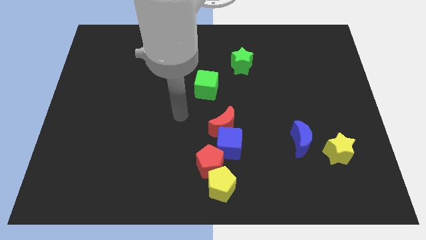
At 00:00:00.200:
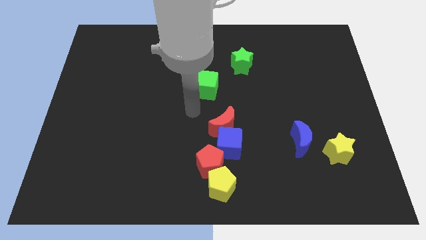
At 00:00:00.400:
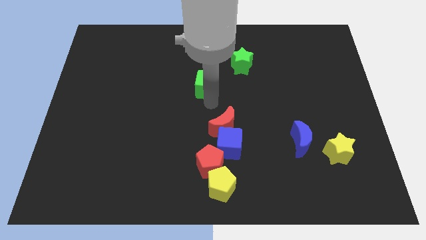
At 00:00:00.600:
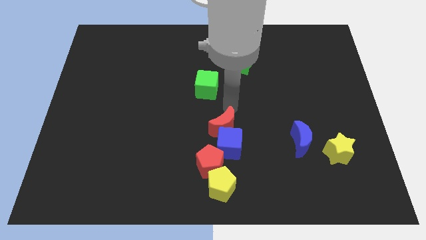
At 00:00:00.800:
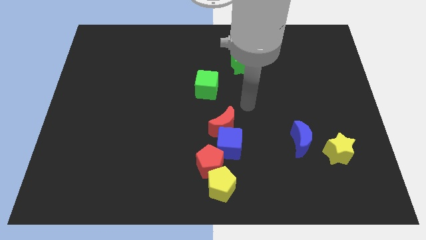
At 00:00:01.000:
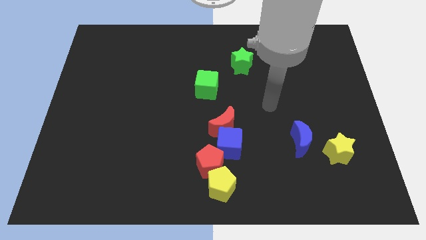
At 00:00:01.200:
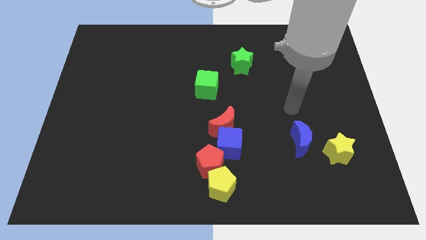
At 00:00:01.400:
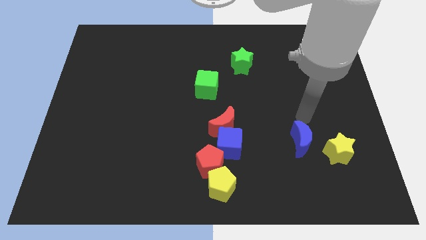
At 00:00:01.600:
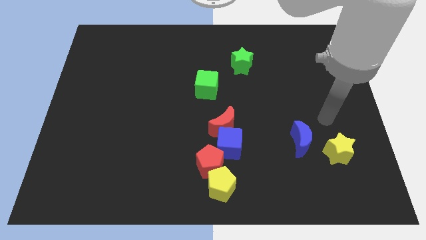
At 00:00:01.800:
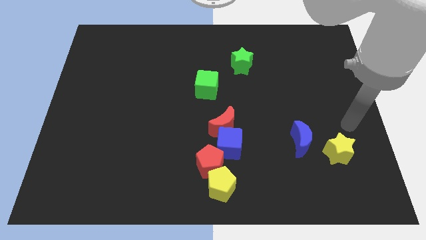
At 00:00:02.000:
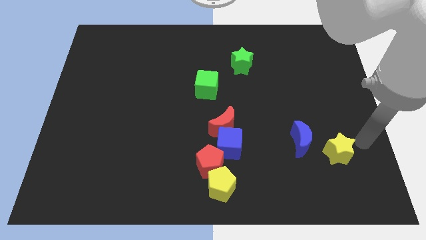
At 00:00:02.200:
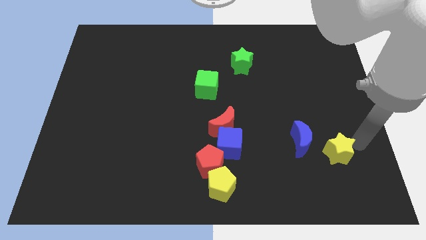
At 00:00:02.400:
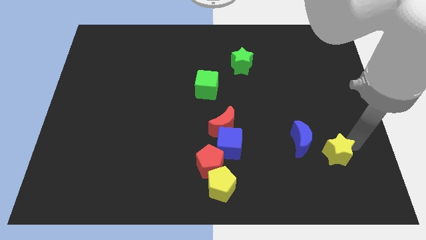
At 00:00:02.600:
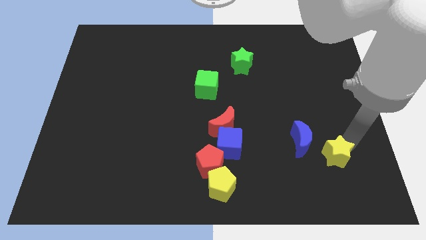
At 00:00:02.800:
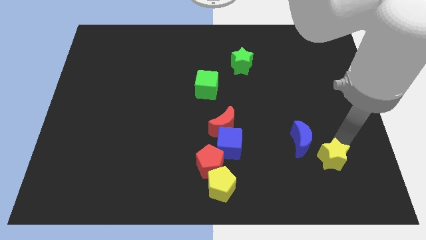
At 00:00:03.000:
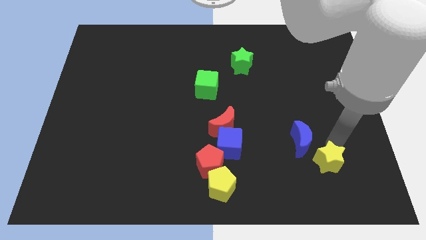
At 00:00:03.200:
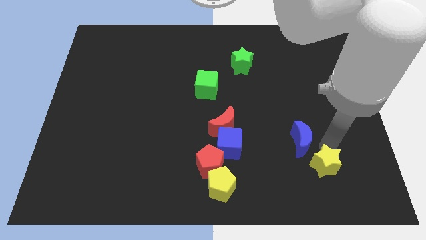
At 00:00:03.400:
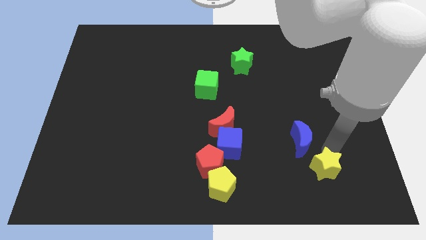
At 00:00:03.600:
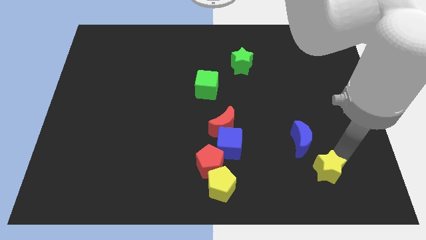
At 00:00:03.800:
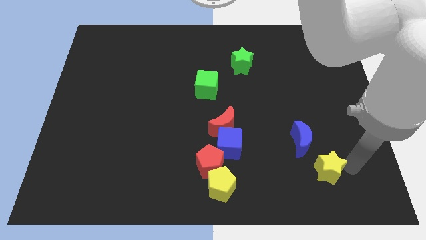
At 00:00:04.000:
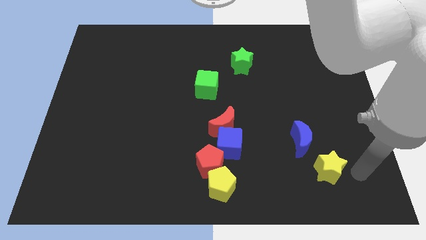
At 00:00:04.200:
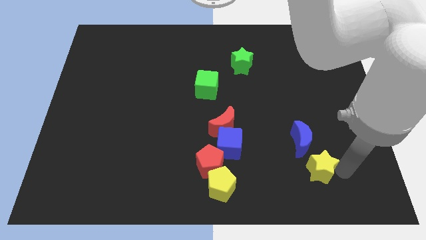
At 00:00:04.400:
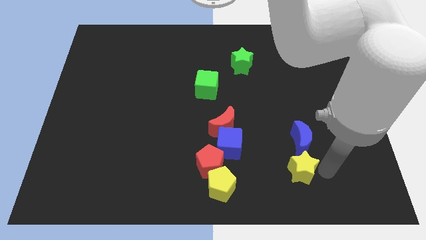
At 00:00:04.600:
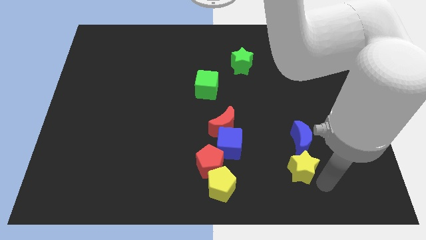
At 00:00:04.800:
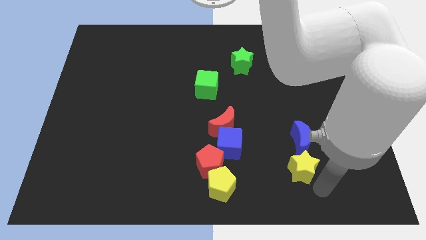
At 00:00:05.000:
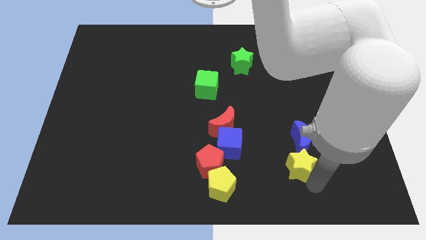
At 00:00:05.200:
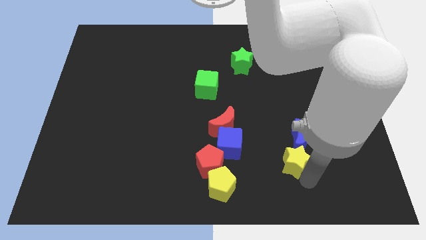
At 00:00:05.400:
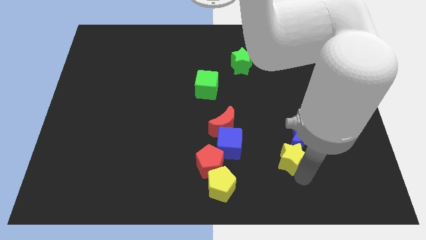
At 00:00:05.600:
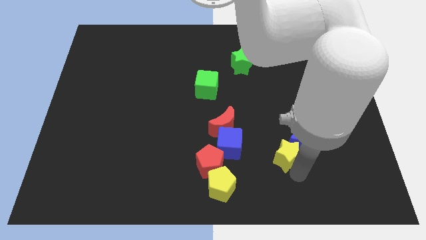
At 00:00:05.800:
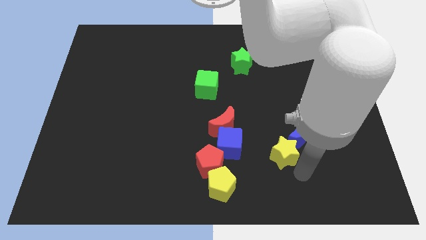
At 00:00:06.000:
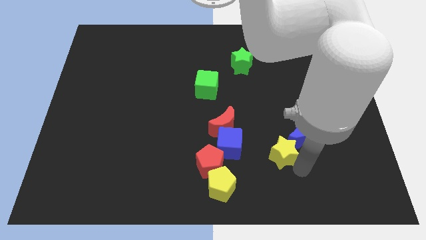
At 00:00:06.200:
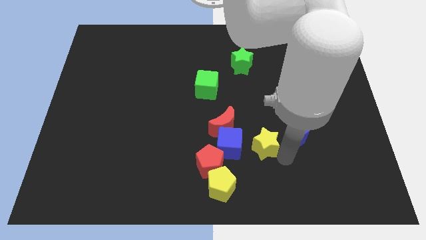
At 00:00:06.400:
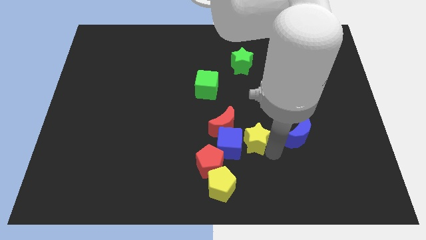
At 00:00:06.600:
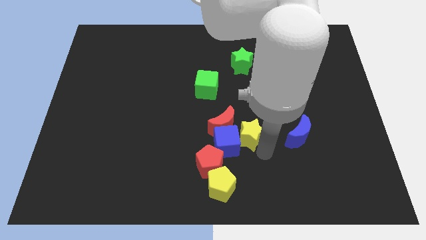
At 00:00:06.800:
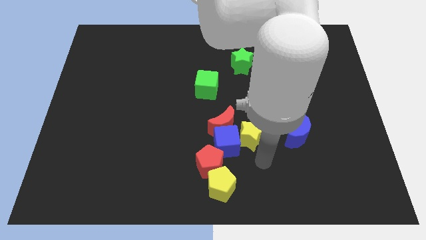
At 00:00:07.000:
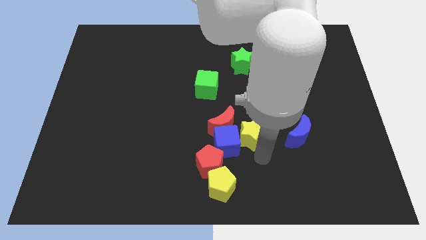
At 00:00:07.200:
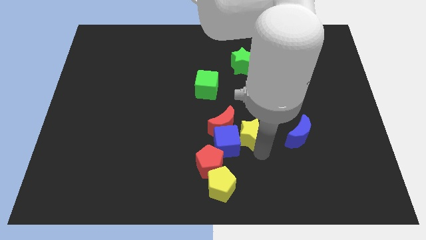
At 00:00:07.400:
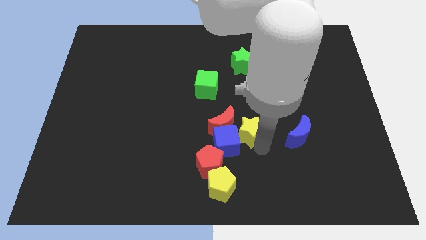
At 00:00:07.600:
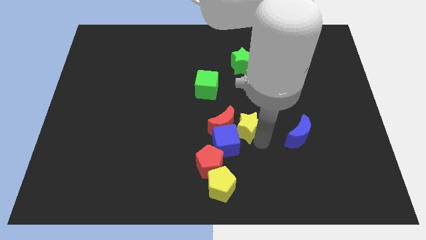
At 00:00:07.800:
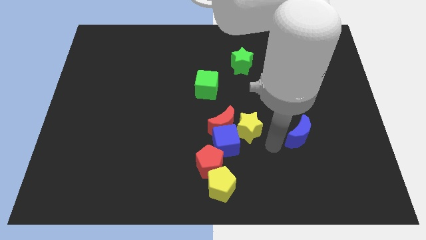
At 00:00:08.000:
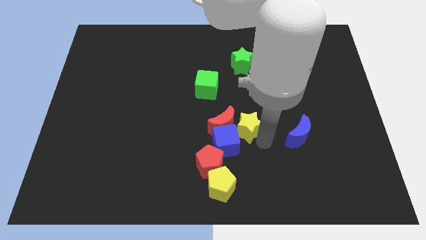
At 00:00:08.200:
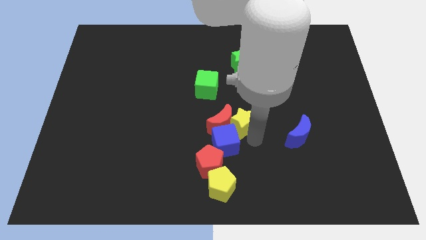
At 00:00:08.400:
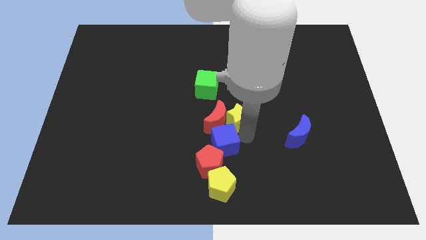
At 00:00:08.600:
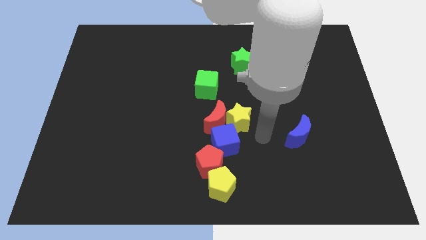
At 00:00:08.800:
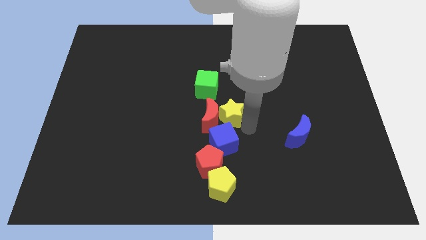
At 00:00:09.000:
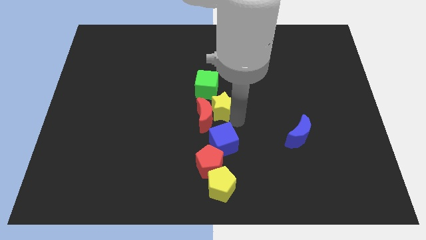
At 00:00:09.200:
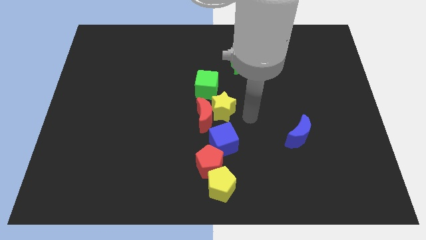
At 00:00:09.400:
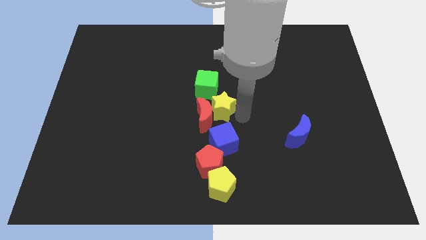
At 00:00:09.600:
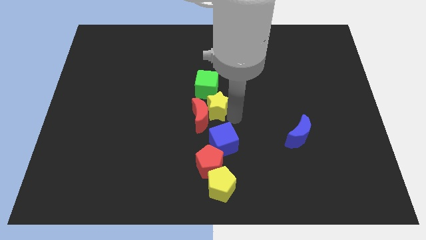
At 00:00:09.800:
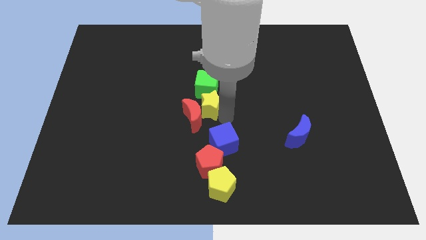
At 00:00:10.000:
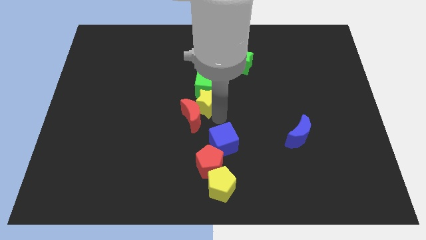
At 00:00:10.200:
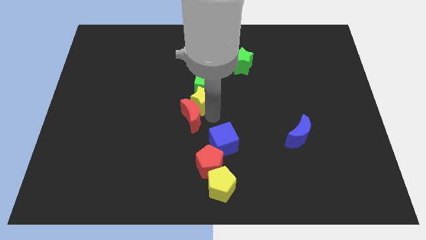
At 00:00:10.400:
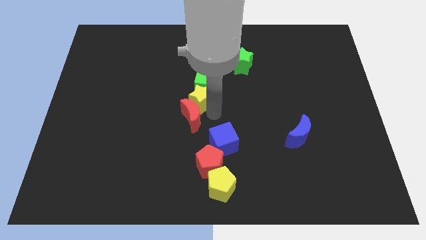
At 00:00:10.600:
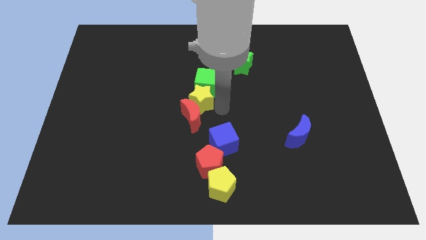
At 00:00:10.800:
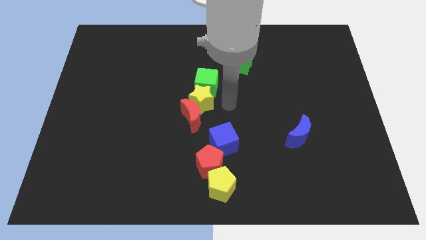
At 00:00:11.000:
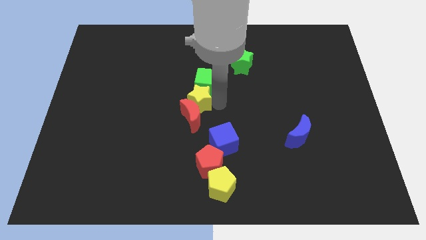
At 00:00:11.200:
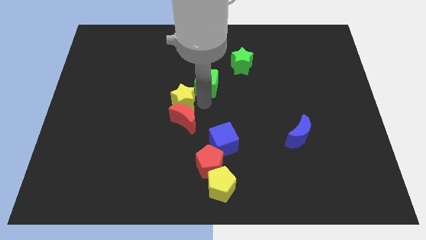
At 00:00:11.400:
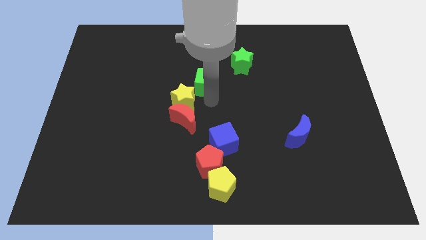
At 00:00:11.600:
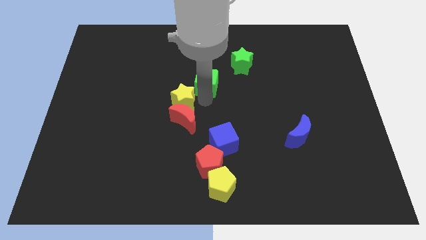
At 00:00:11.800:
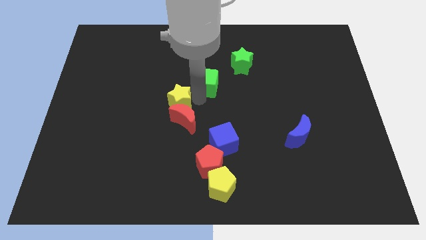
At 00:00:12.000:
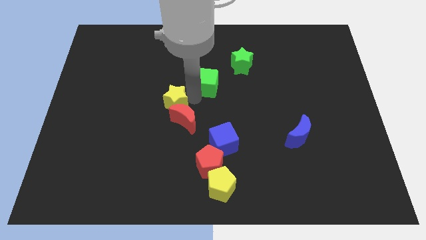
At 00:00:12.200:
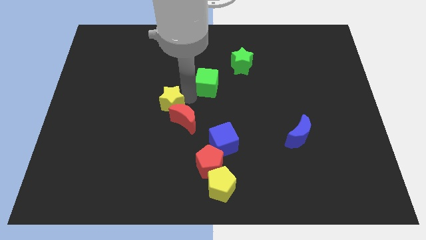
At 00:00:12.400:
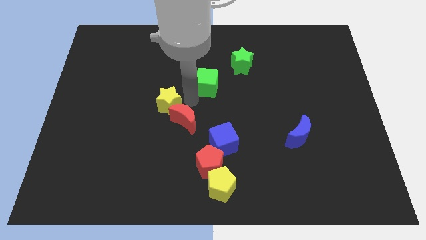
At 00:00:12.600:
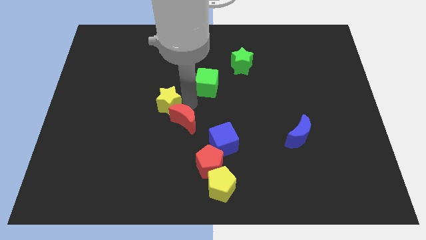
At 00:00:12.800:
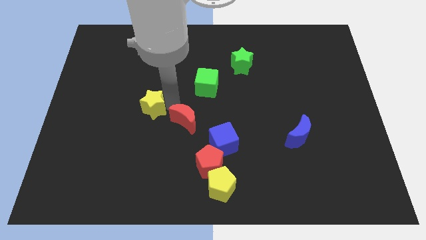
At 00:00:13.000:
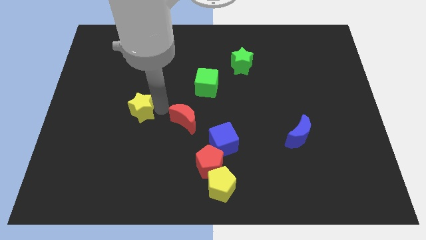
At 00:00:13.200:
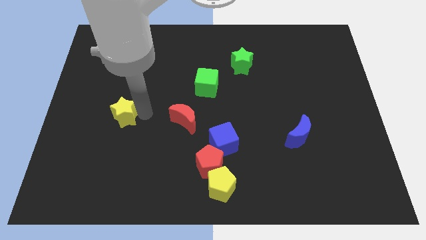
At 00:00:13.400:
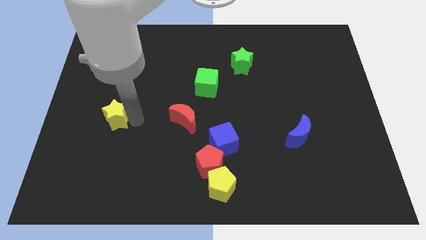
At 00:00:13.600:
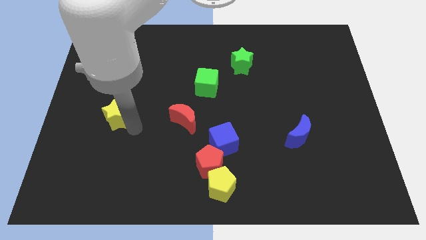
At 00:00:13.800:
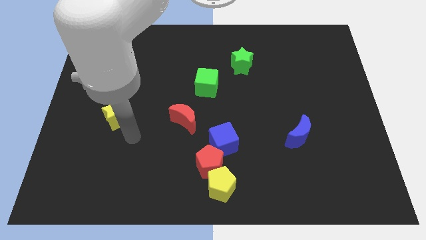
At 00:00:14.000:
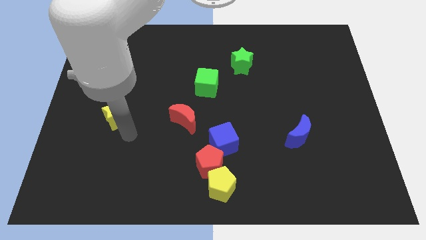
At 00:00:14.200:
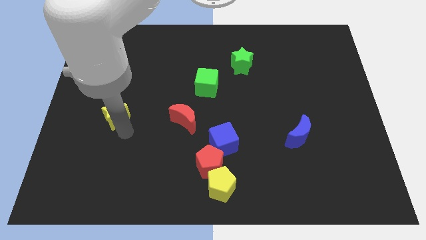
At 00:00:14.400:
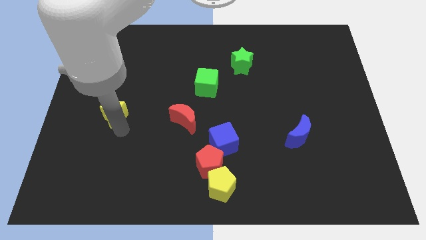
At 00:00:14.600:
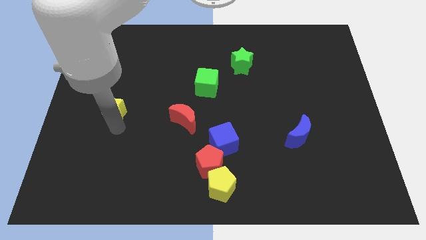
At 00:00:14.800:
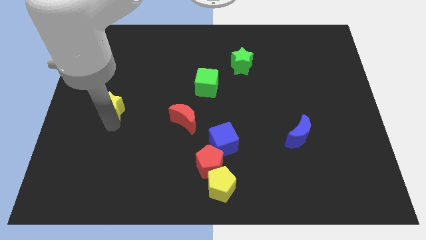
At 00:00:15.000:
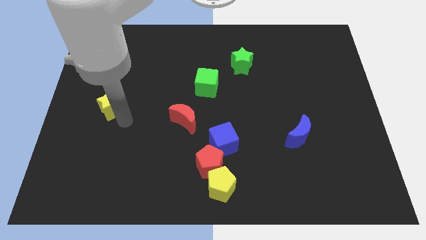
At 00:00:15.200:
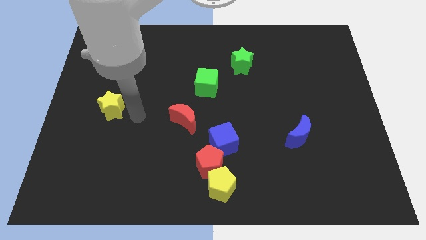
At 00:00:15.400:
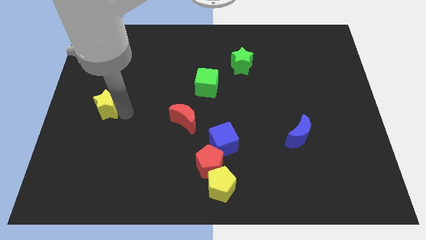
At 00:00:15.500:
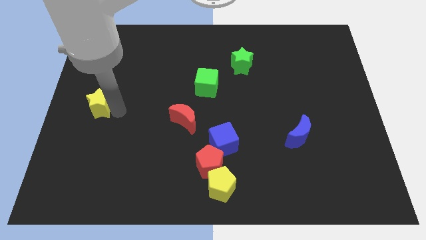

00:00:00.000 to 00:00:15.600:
move the yellow star to the left side
